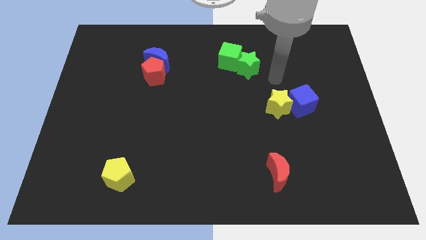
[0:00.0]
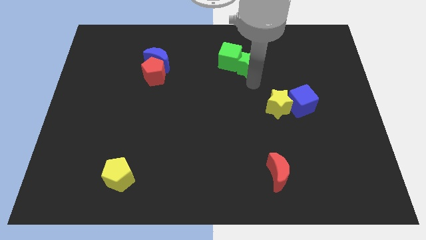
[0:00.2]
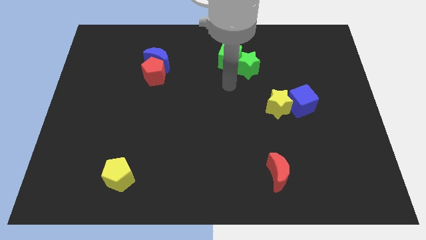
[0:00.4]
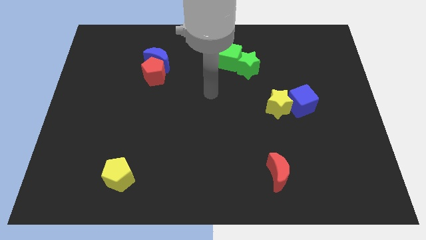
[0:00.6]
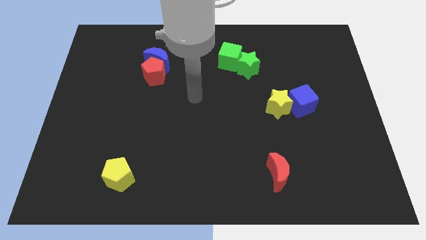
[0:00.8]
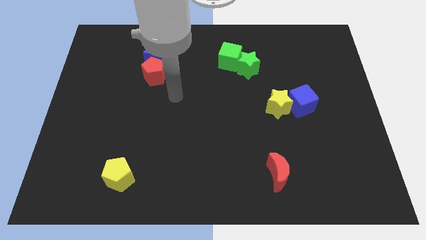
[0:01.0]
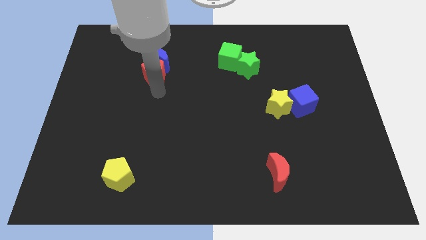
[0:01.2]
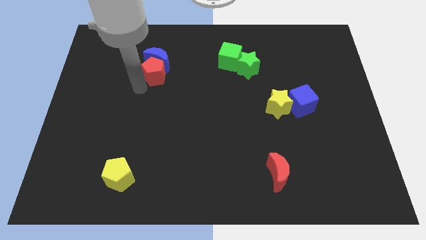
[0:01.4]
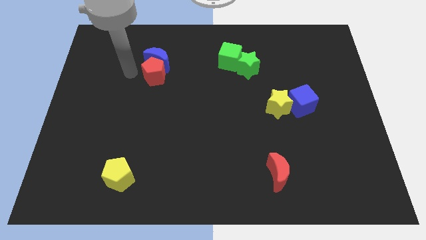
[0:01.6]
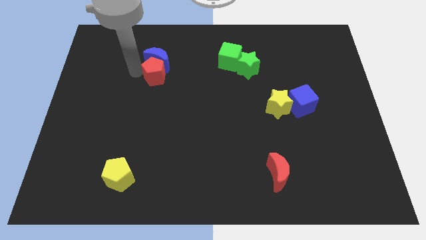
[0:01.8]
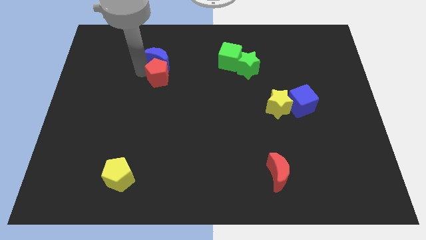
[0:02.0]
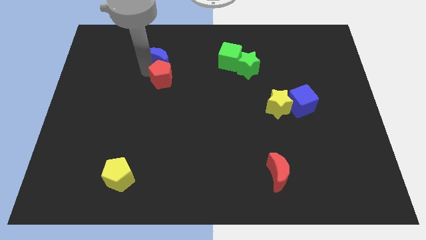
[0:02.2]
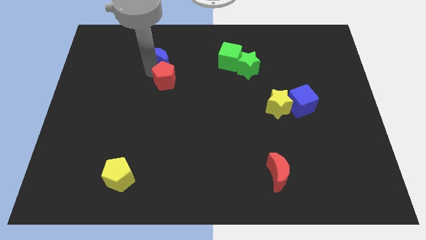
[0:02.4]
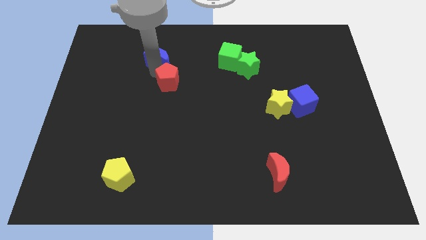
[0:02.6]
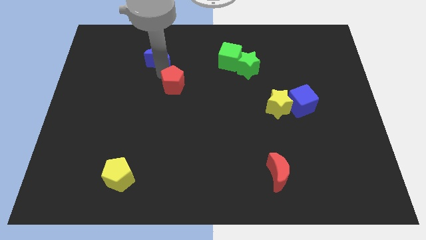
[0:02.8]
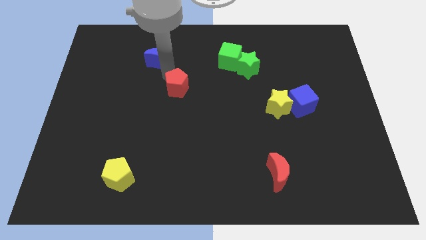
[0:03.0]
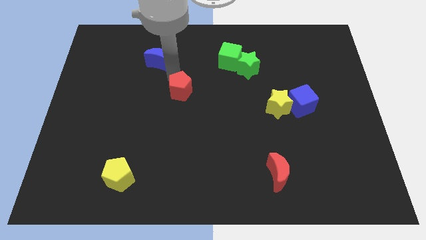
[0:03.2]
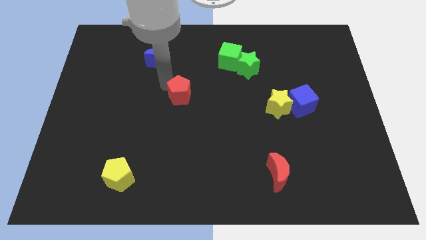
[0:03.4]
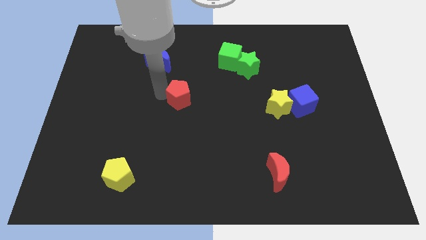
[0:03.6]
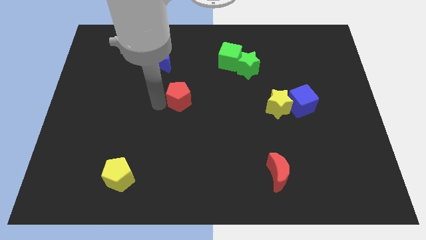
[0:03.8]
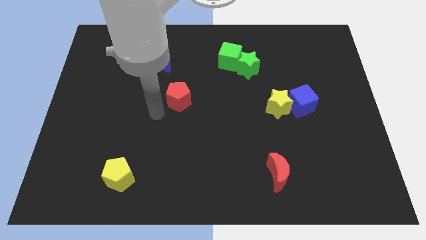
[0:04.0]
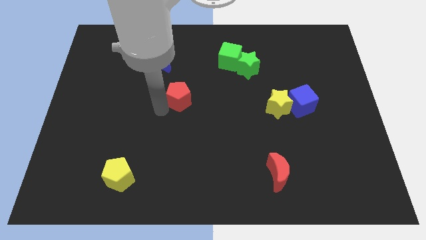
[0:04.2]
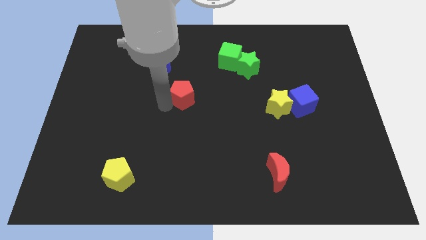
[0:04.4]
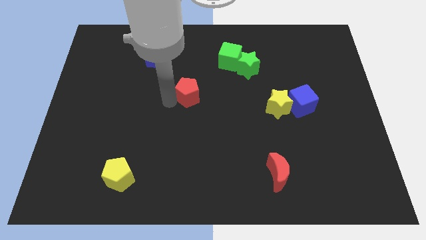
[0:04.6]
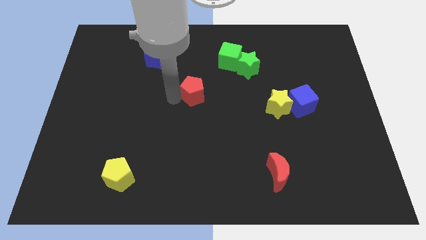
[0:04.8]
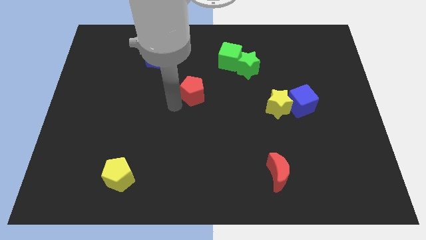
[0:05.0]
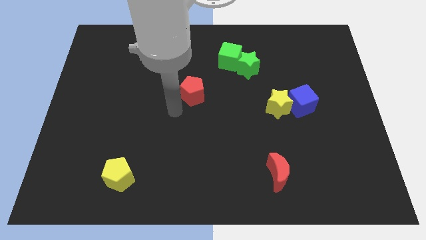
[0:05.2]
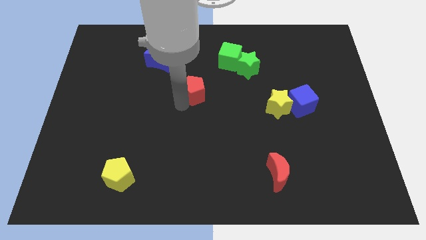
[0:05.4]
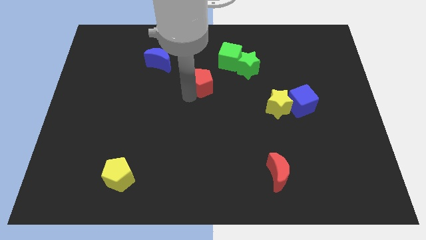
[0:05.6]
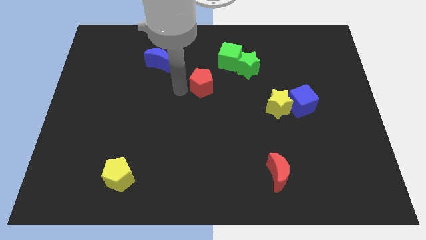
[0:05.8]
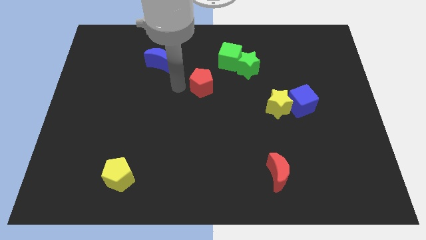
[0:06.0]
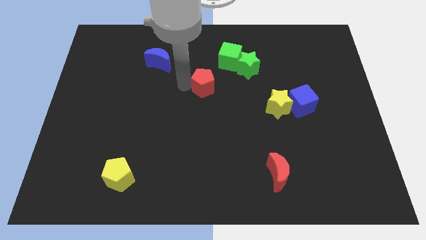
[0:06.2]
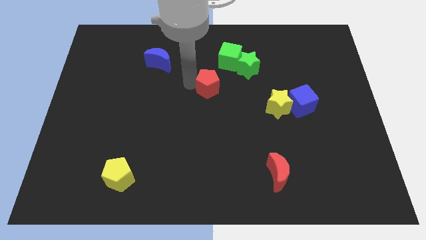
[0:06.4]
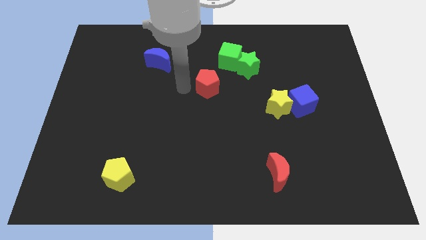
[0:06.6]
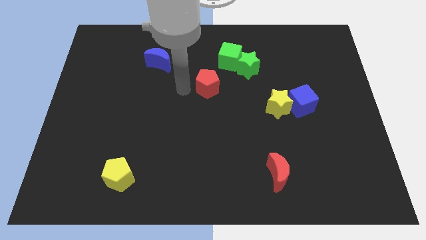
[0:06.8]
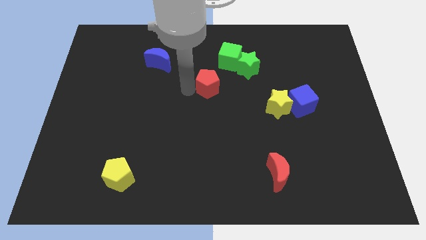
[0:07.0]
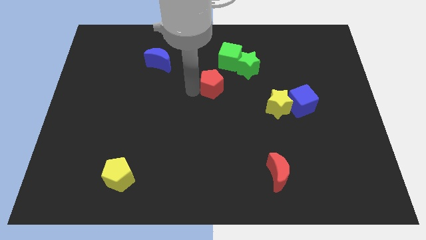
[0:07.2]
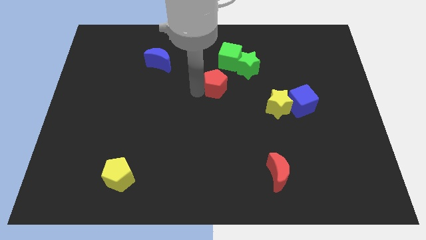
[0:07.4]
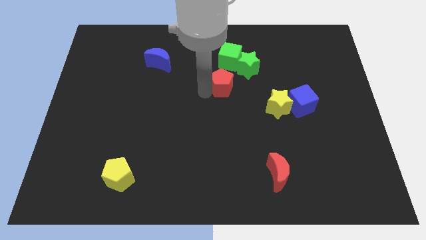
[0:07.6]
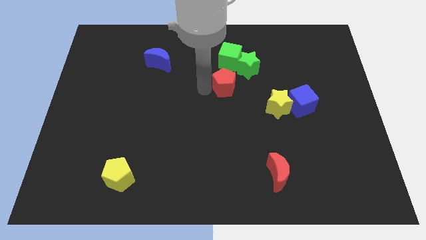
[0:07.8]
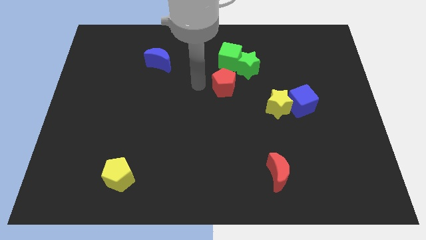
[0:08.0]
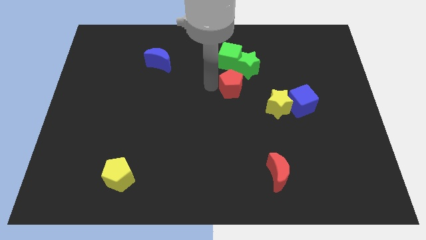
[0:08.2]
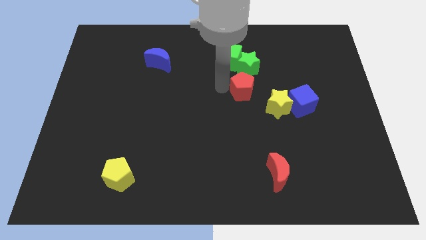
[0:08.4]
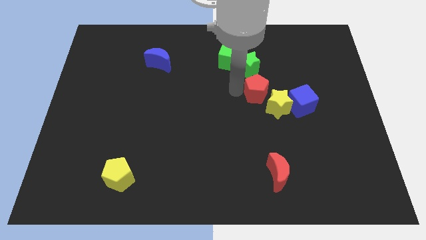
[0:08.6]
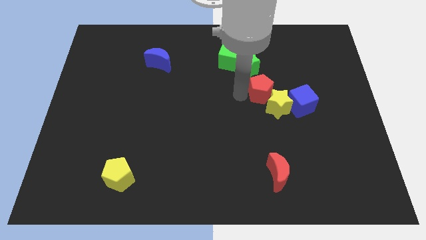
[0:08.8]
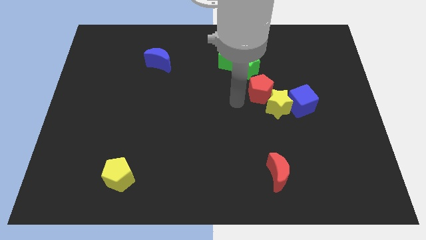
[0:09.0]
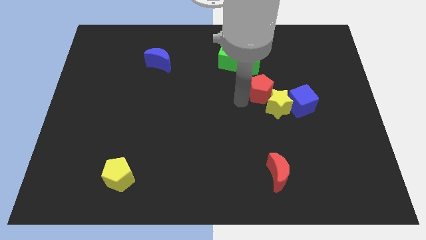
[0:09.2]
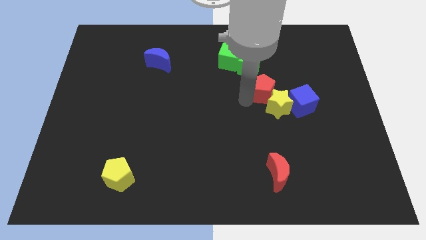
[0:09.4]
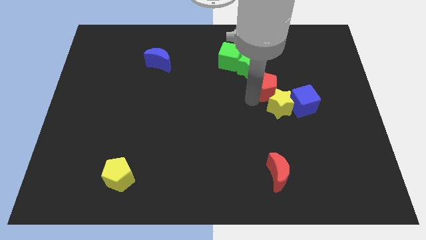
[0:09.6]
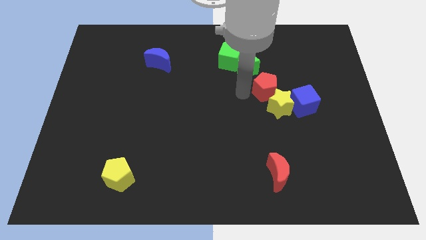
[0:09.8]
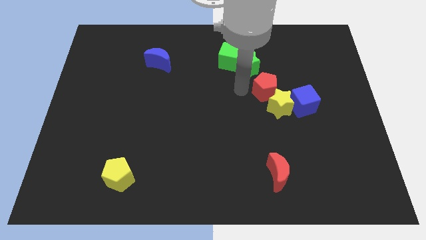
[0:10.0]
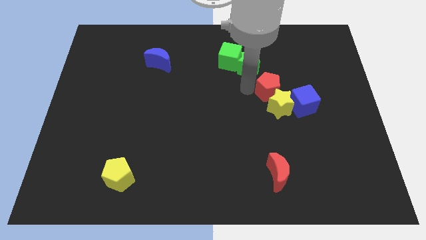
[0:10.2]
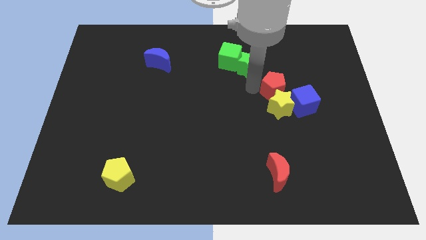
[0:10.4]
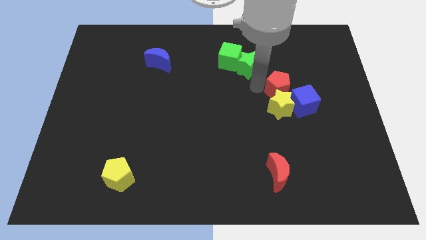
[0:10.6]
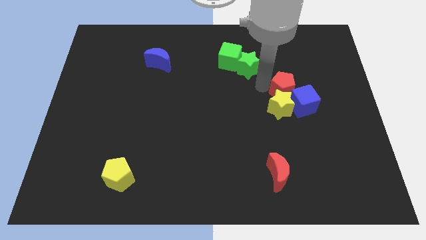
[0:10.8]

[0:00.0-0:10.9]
put the red pentagon next to the blue cube

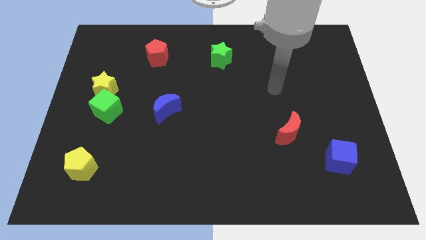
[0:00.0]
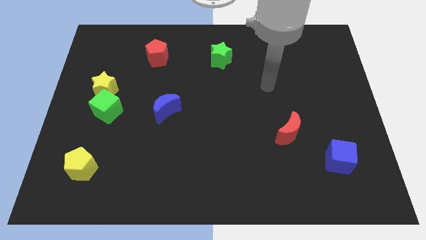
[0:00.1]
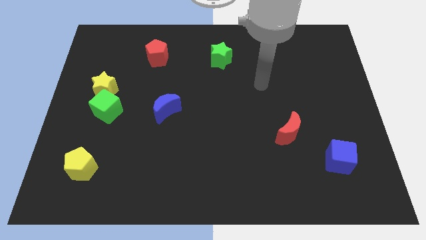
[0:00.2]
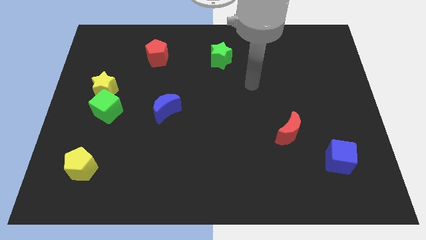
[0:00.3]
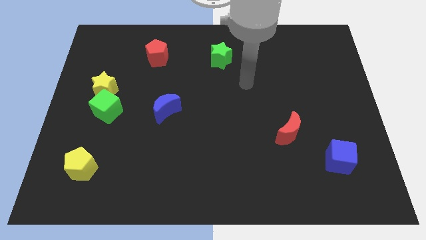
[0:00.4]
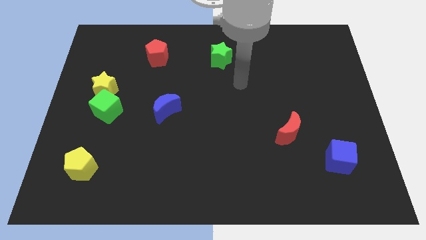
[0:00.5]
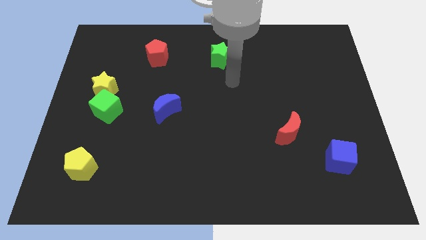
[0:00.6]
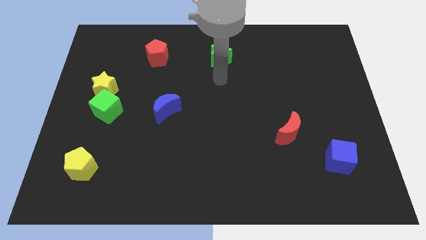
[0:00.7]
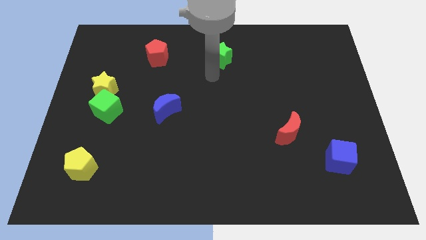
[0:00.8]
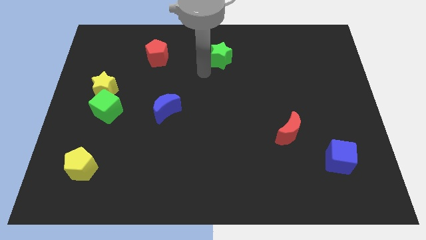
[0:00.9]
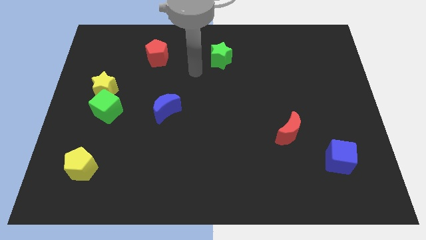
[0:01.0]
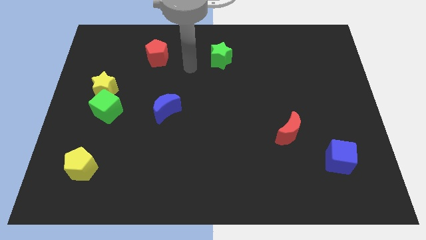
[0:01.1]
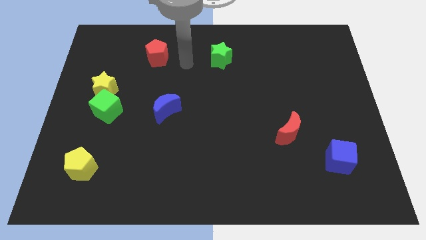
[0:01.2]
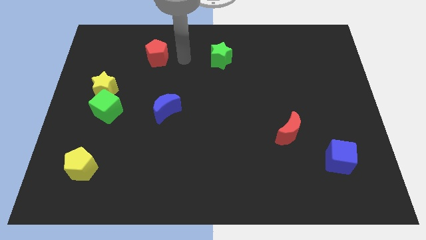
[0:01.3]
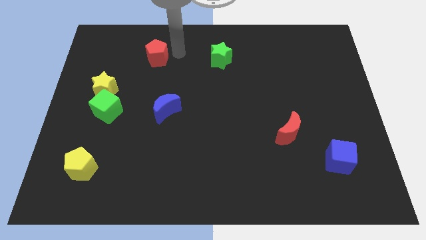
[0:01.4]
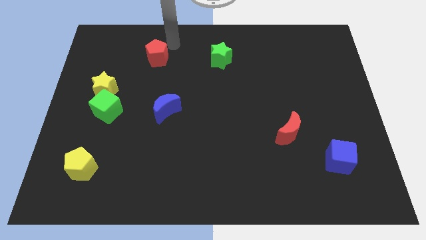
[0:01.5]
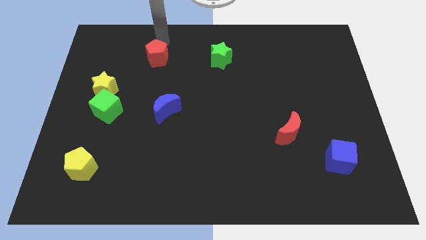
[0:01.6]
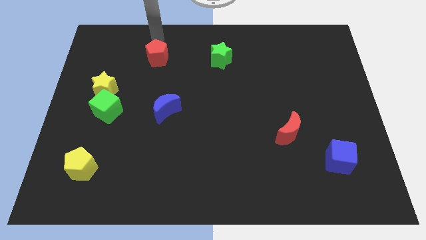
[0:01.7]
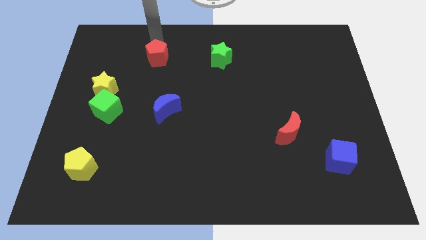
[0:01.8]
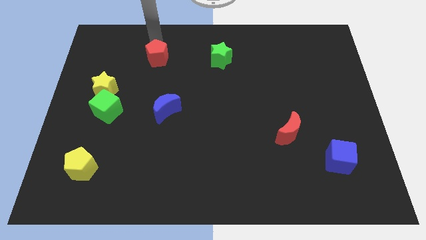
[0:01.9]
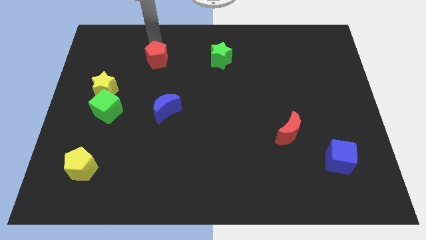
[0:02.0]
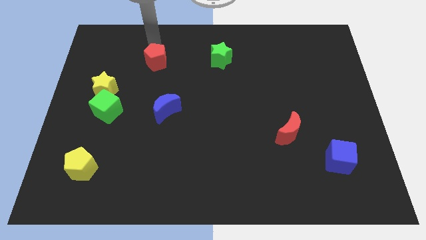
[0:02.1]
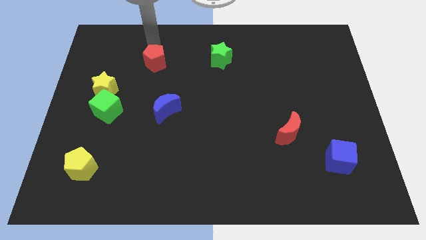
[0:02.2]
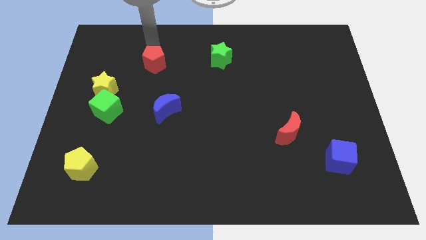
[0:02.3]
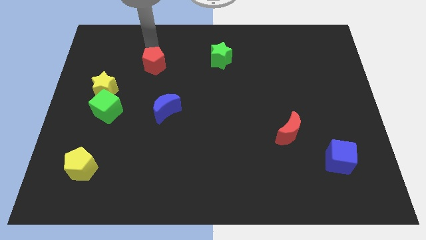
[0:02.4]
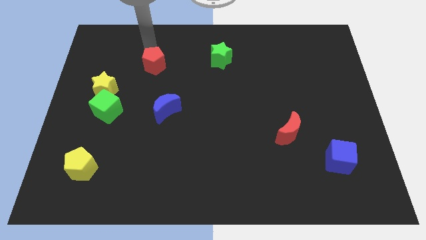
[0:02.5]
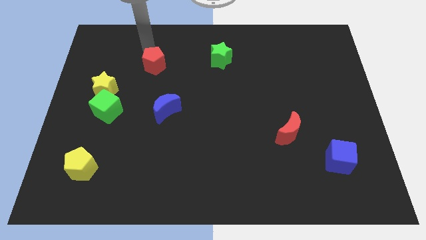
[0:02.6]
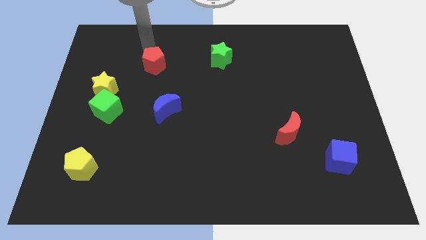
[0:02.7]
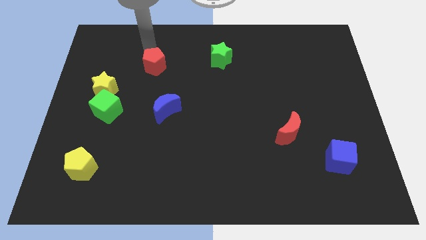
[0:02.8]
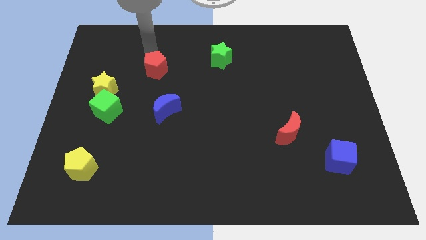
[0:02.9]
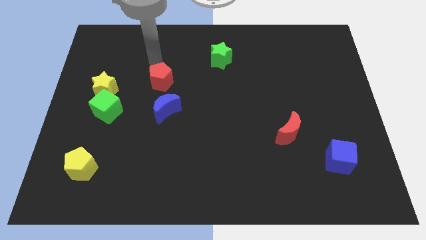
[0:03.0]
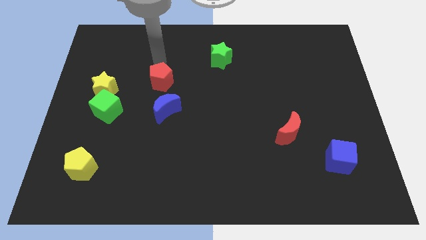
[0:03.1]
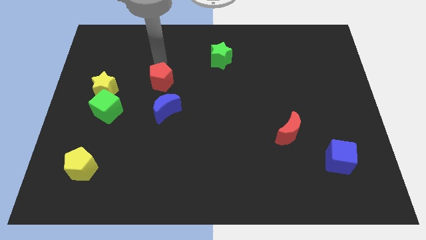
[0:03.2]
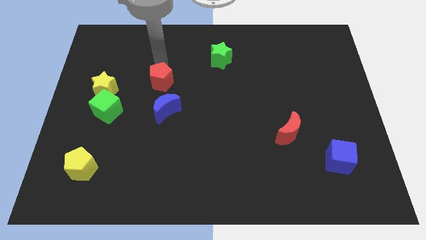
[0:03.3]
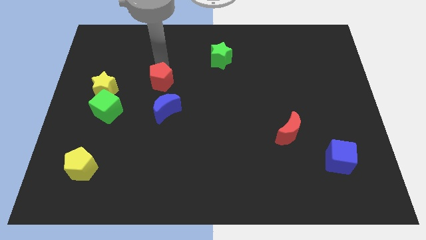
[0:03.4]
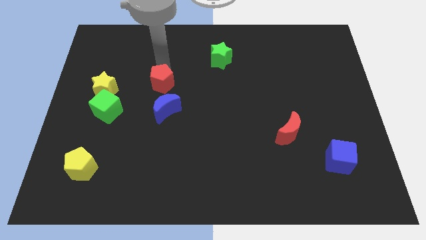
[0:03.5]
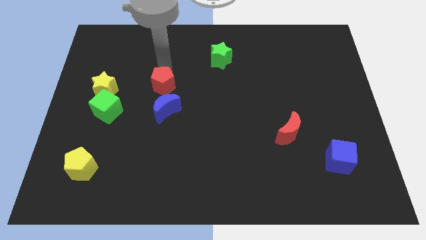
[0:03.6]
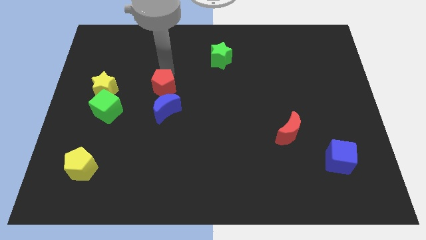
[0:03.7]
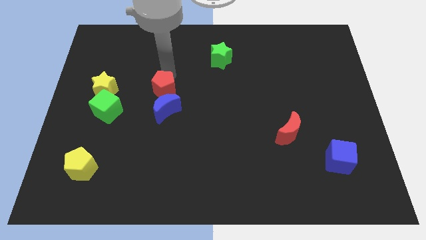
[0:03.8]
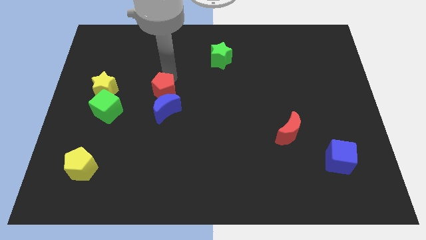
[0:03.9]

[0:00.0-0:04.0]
push the red pentagon close to the blue moon
